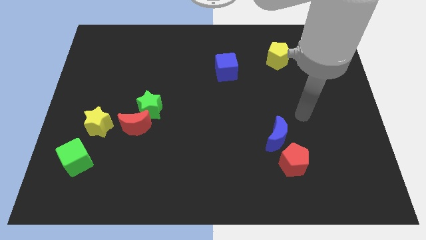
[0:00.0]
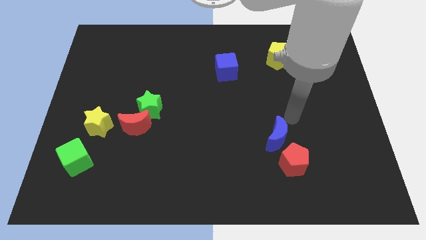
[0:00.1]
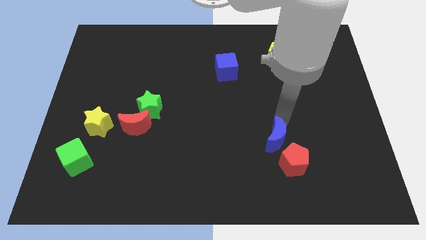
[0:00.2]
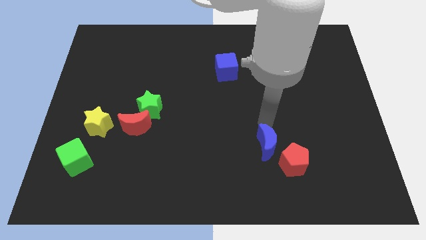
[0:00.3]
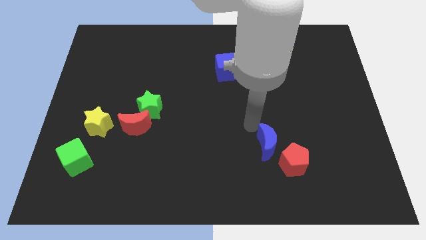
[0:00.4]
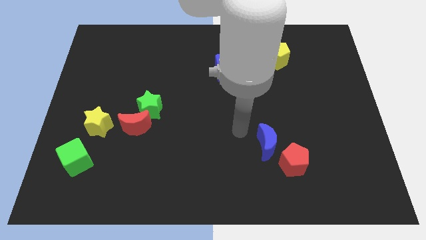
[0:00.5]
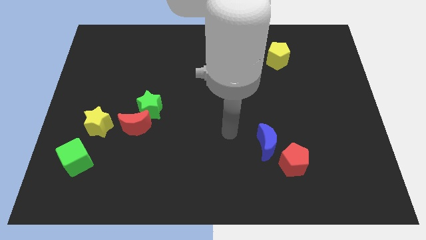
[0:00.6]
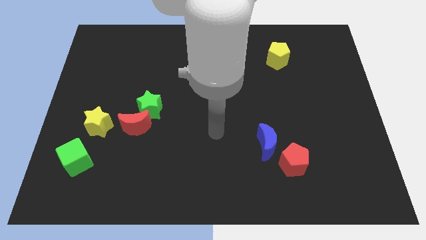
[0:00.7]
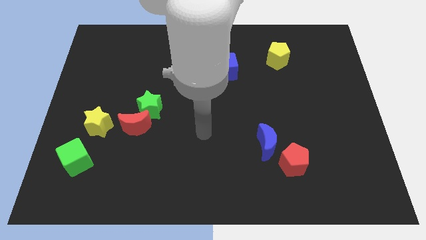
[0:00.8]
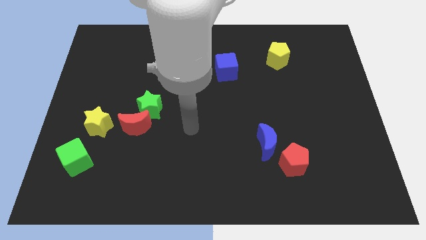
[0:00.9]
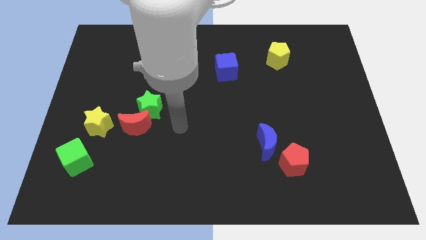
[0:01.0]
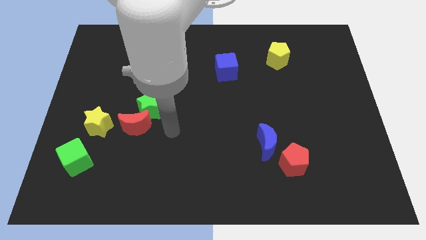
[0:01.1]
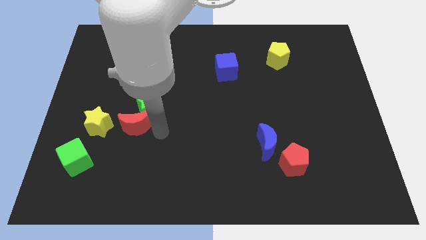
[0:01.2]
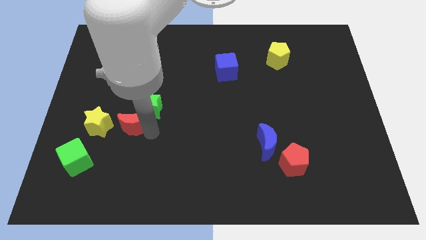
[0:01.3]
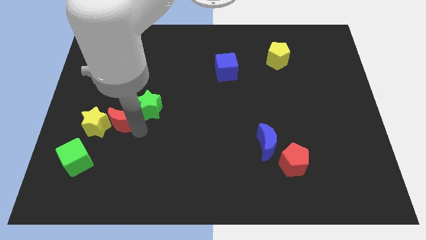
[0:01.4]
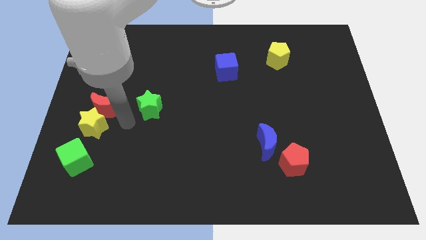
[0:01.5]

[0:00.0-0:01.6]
separate the green star from the red moon

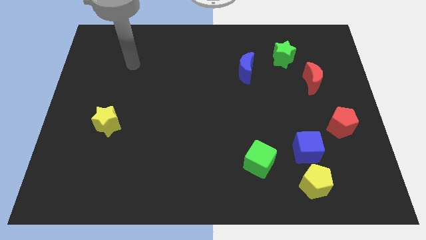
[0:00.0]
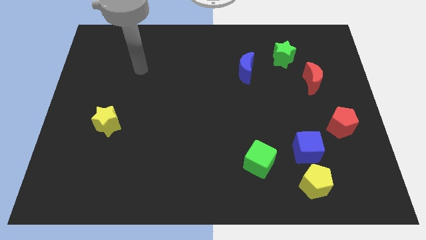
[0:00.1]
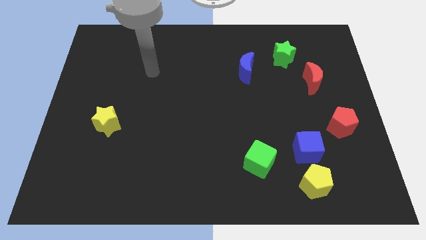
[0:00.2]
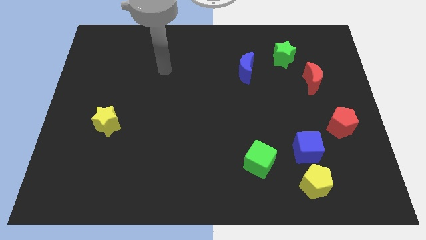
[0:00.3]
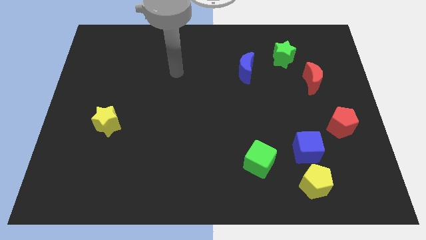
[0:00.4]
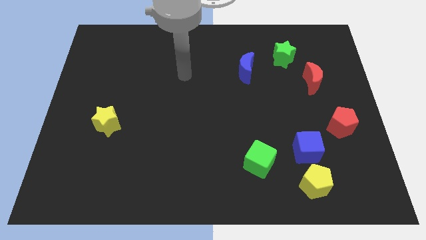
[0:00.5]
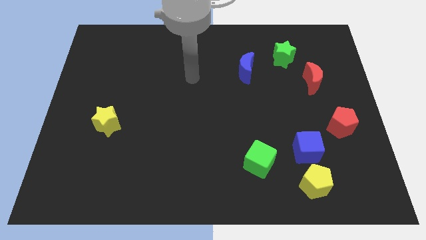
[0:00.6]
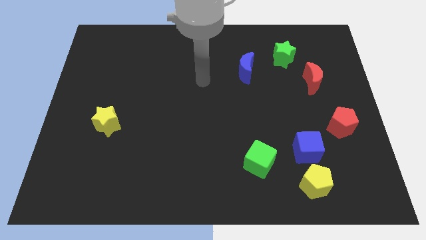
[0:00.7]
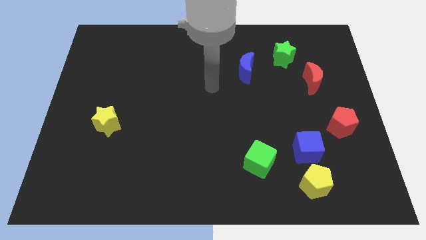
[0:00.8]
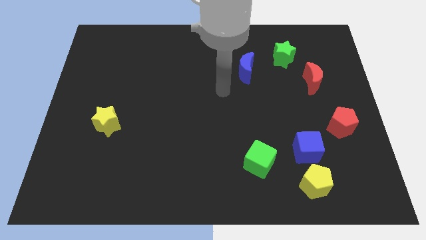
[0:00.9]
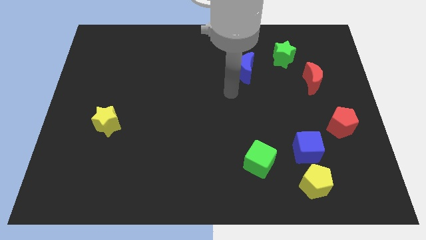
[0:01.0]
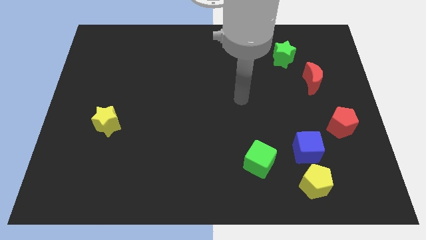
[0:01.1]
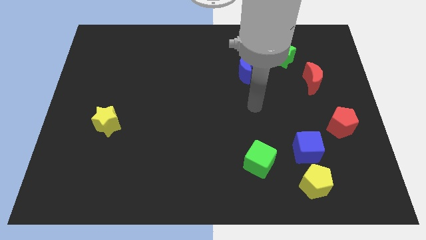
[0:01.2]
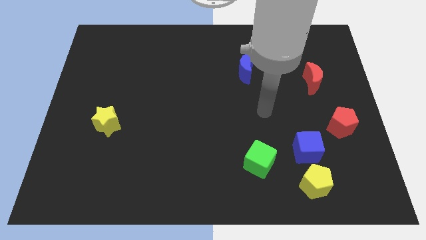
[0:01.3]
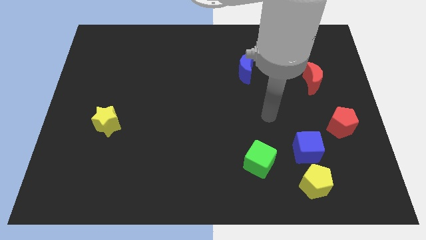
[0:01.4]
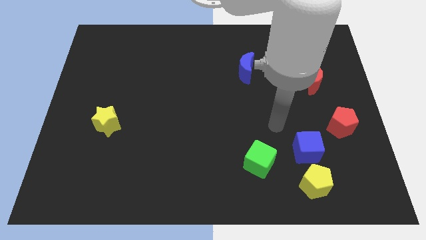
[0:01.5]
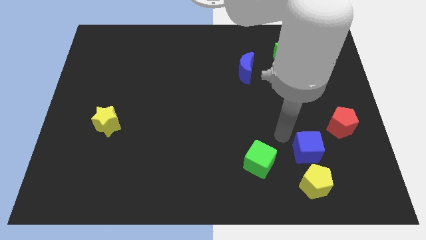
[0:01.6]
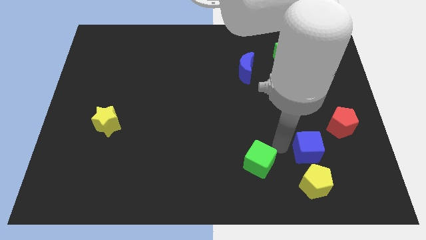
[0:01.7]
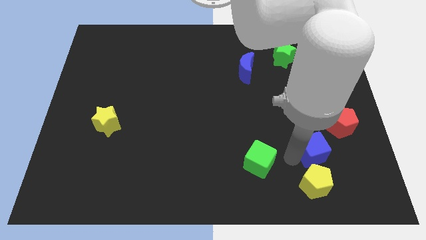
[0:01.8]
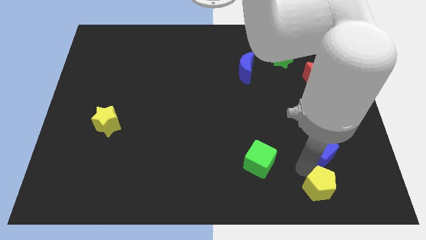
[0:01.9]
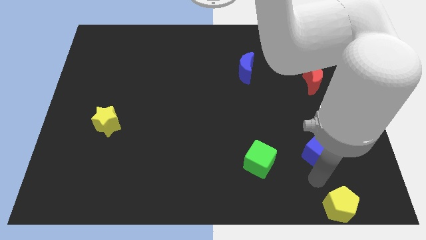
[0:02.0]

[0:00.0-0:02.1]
pull the blue cube apart from the yellow pentagon

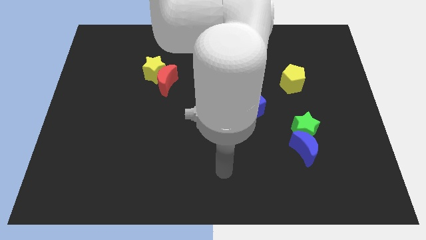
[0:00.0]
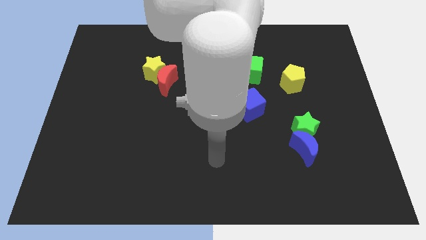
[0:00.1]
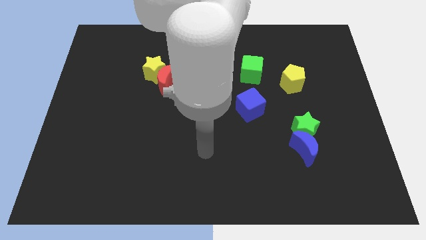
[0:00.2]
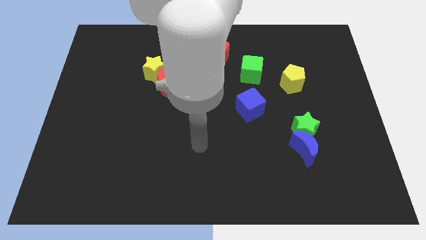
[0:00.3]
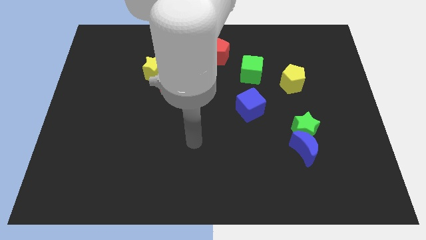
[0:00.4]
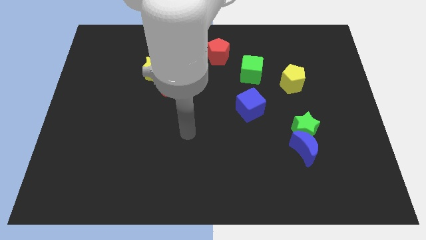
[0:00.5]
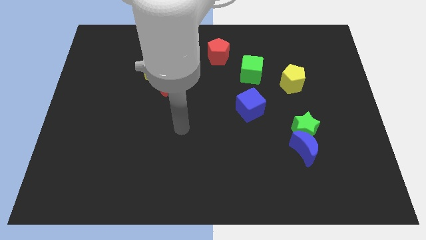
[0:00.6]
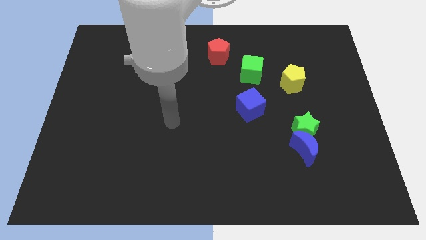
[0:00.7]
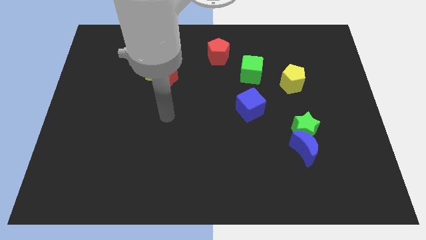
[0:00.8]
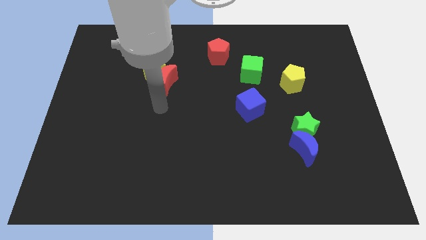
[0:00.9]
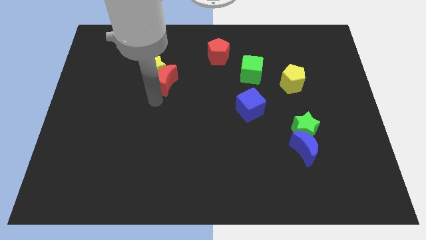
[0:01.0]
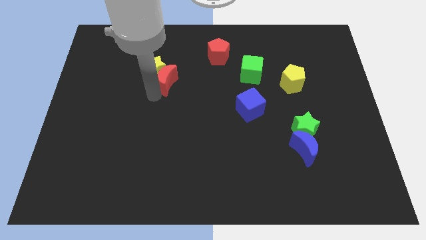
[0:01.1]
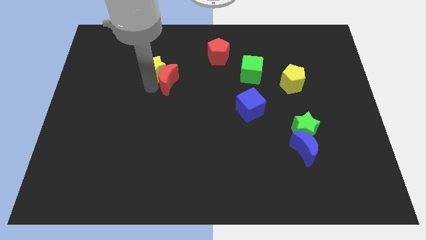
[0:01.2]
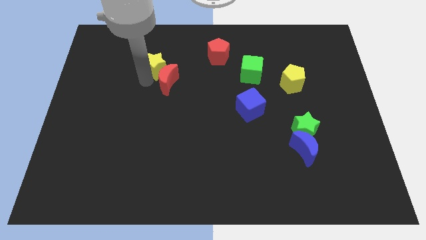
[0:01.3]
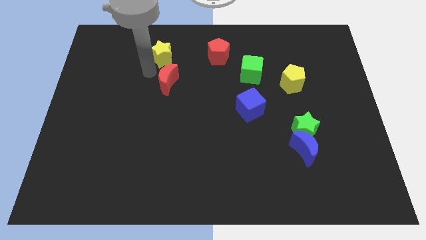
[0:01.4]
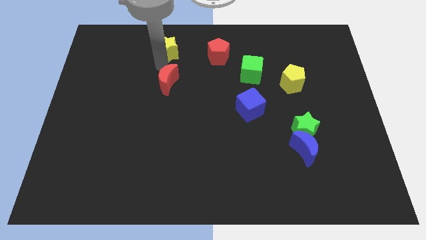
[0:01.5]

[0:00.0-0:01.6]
pull the red moon apart from the yellow star

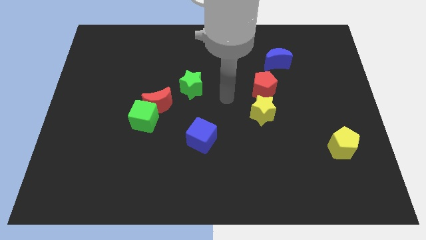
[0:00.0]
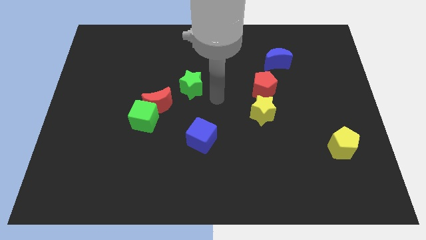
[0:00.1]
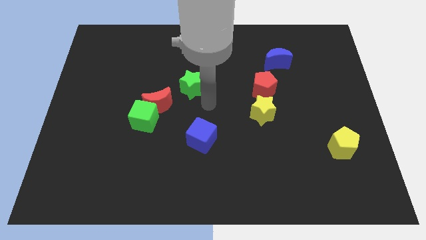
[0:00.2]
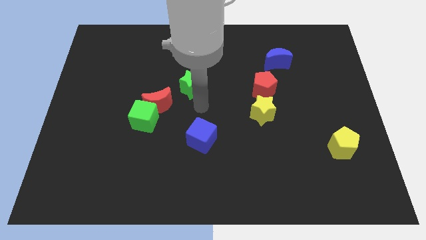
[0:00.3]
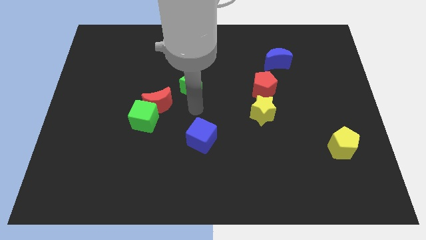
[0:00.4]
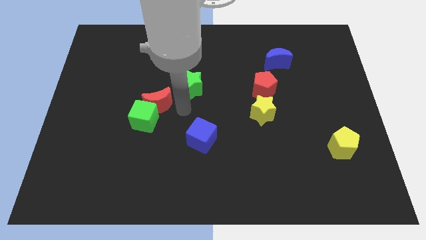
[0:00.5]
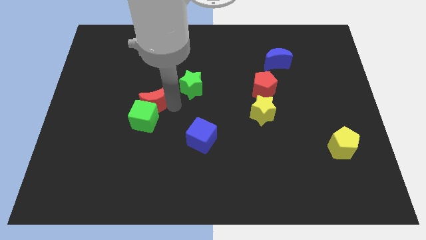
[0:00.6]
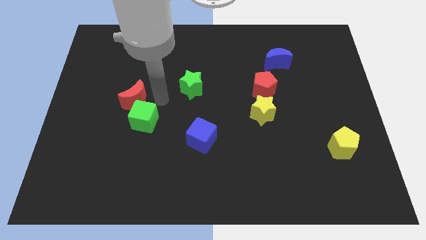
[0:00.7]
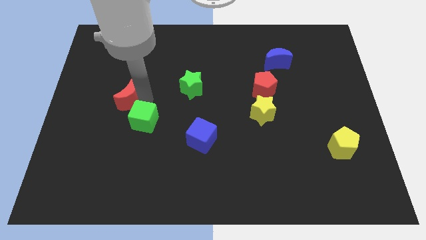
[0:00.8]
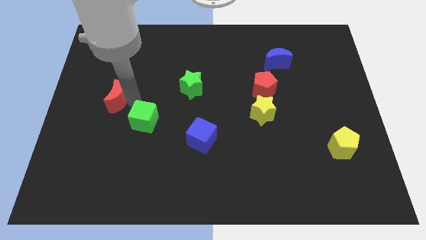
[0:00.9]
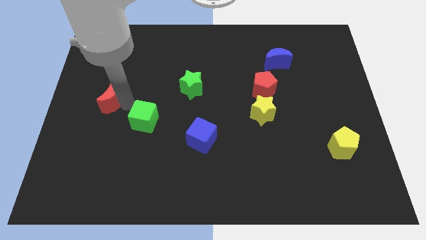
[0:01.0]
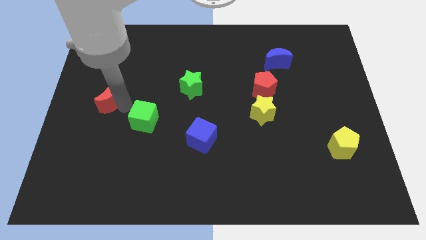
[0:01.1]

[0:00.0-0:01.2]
move the green cube away from the red moon

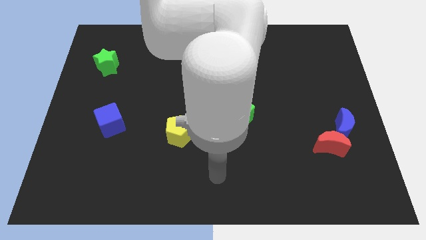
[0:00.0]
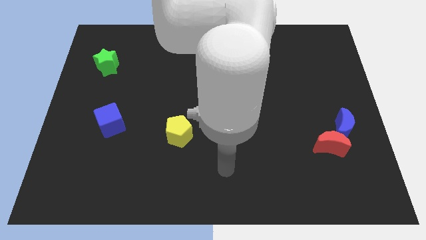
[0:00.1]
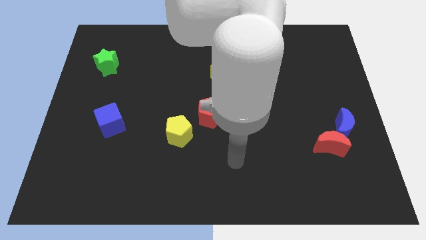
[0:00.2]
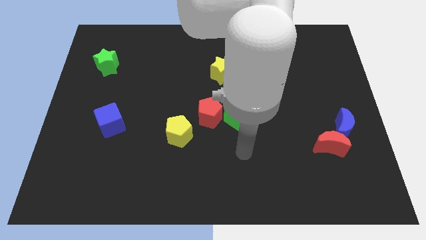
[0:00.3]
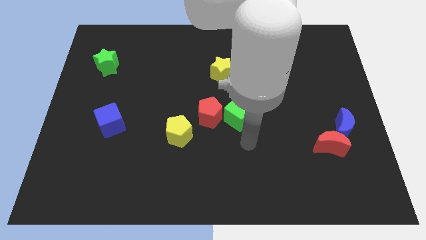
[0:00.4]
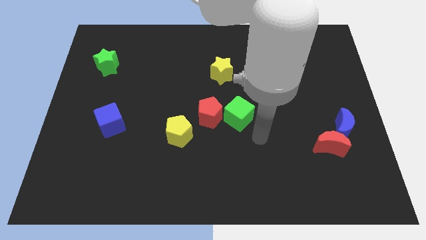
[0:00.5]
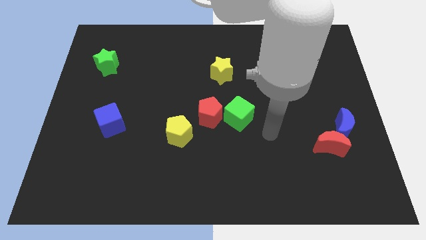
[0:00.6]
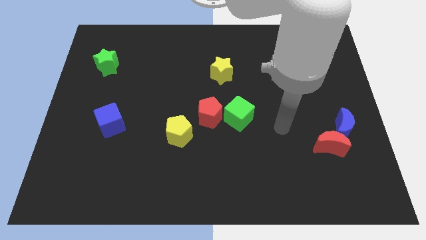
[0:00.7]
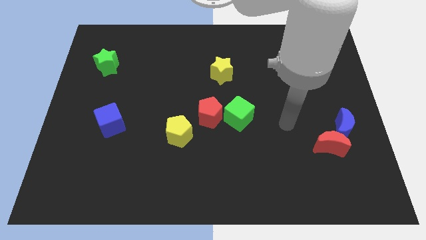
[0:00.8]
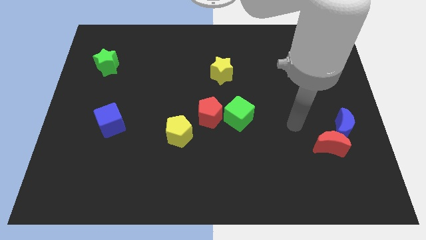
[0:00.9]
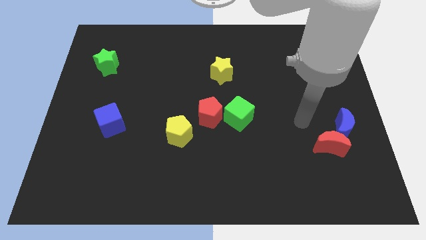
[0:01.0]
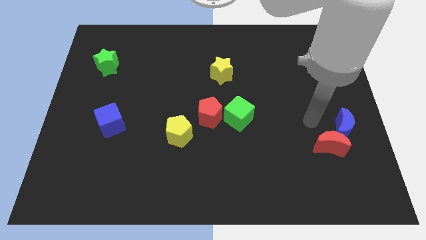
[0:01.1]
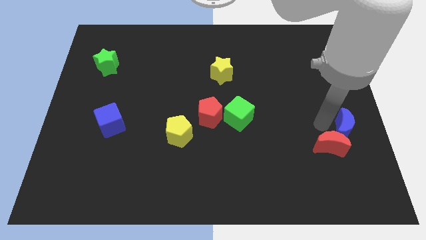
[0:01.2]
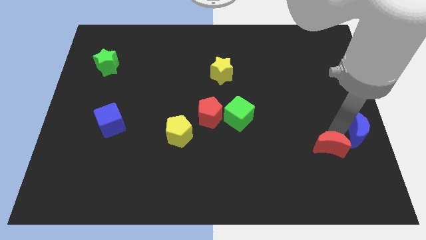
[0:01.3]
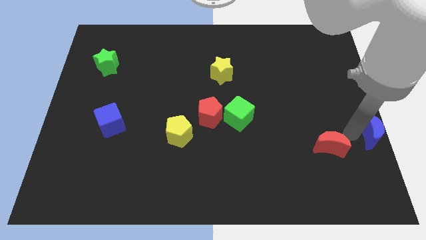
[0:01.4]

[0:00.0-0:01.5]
pull the red moon apart from the blue moon

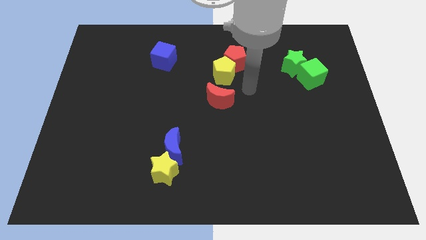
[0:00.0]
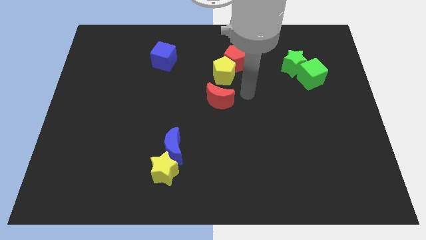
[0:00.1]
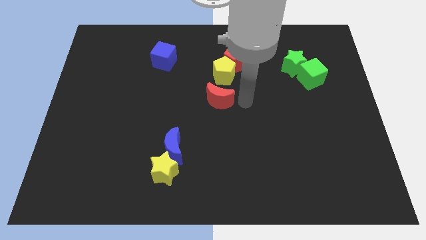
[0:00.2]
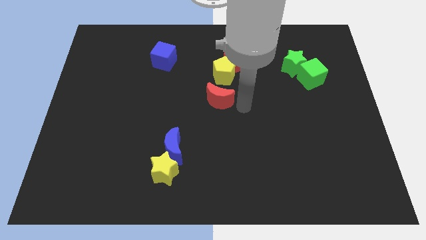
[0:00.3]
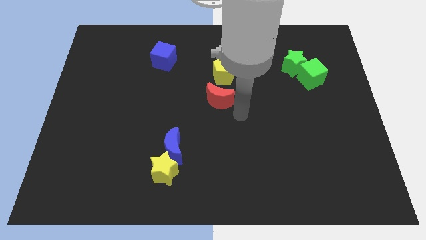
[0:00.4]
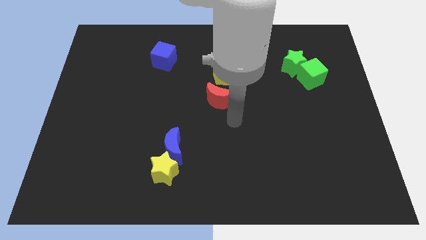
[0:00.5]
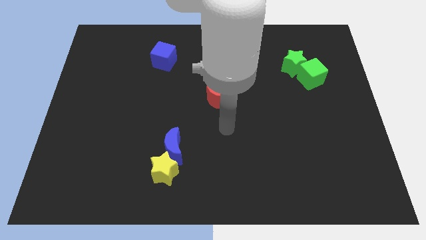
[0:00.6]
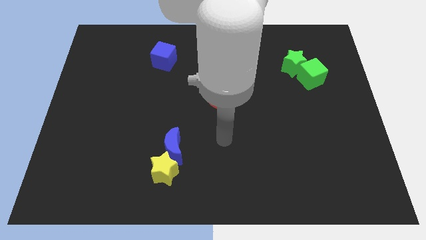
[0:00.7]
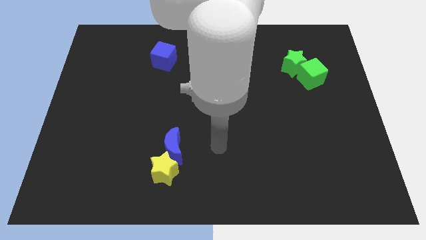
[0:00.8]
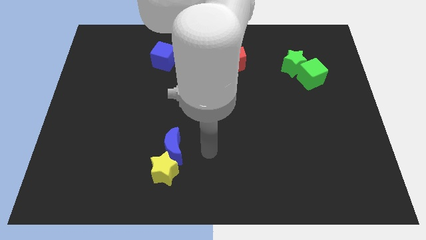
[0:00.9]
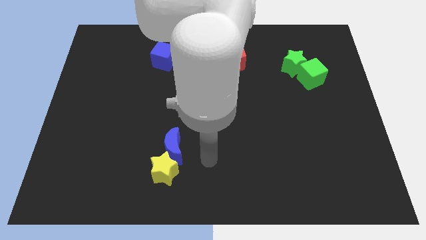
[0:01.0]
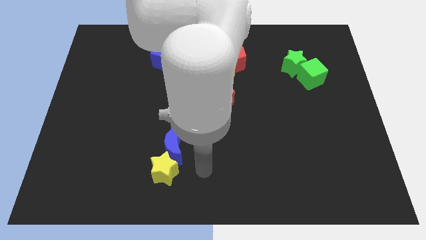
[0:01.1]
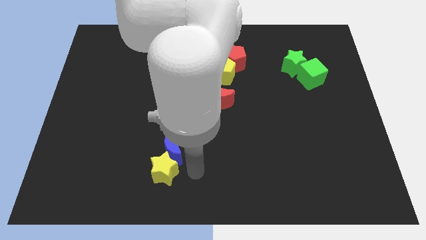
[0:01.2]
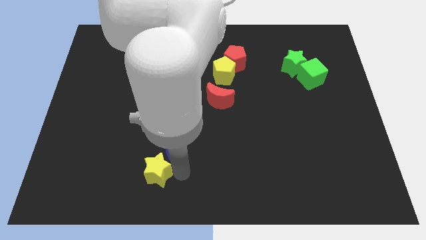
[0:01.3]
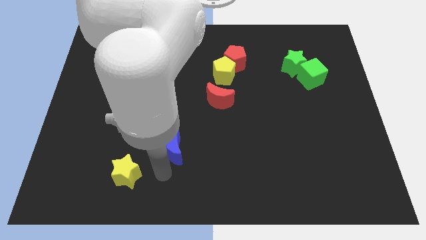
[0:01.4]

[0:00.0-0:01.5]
move the blue moon away from the yellow star

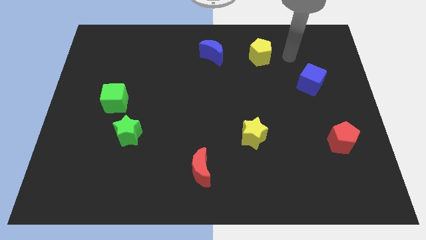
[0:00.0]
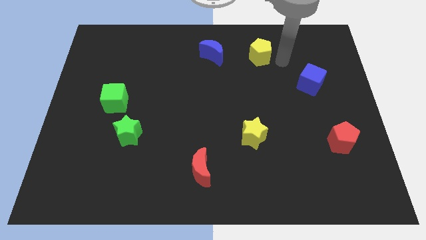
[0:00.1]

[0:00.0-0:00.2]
move the green cube away from the green star
